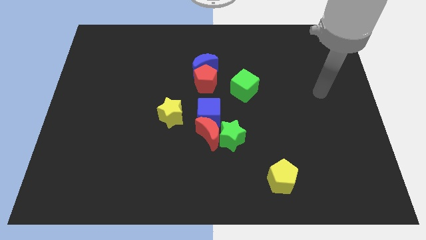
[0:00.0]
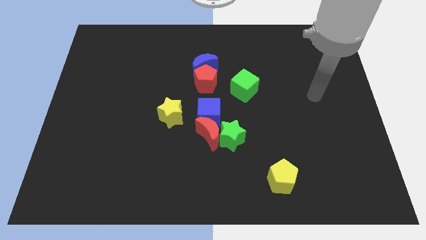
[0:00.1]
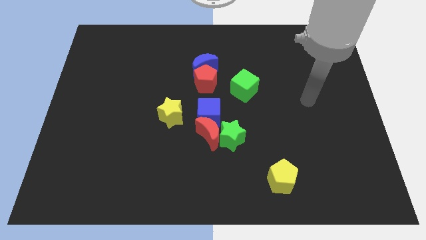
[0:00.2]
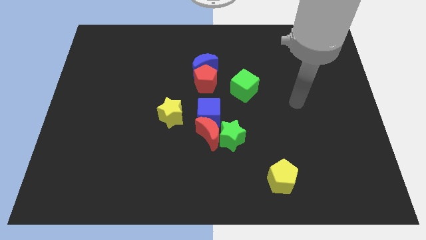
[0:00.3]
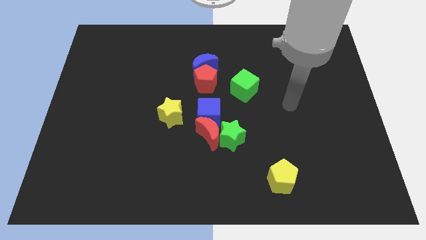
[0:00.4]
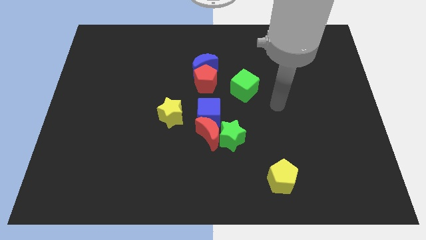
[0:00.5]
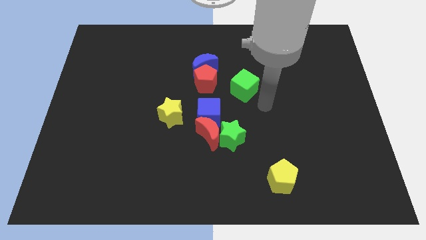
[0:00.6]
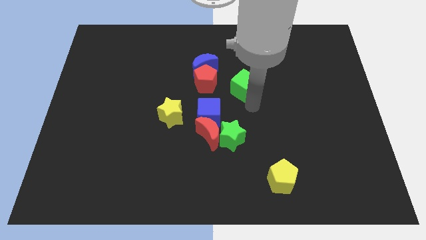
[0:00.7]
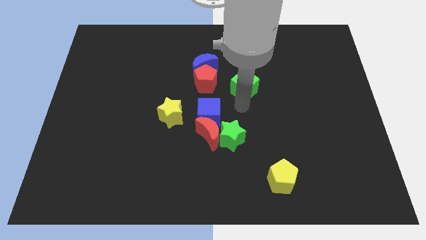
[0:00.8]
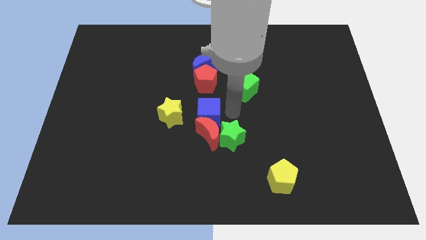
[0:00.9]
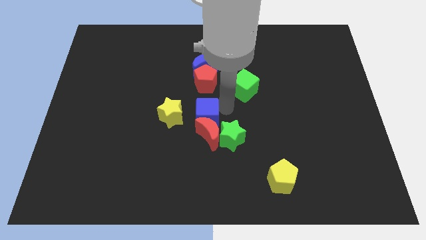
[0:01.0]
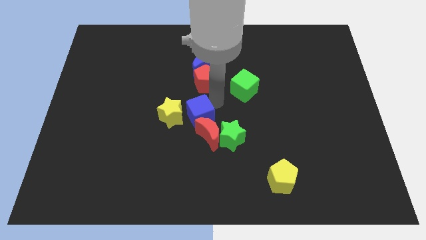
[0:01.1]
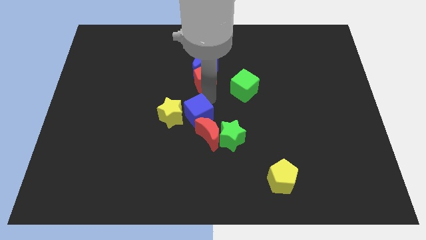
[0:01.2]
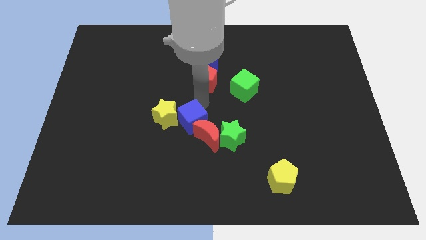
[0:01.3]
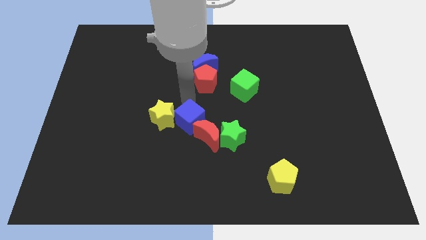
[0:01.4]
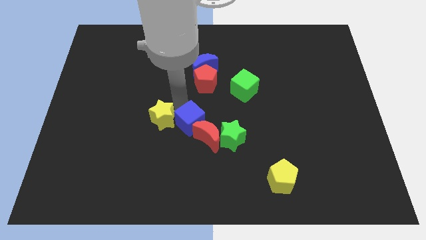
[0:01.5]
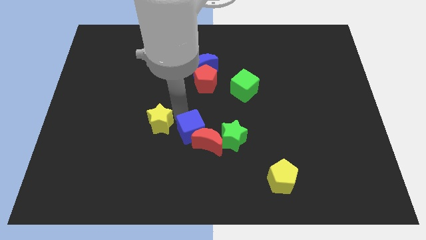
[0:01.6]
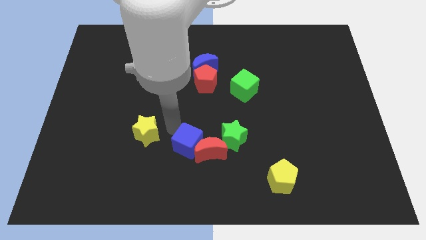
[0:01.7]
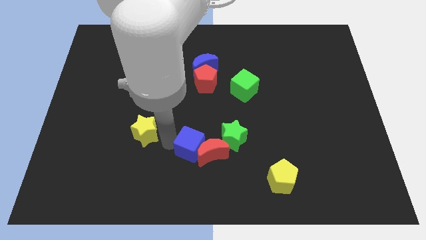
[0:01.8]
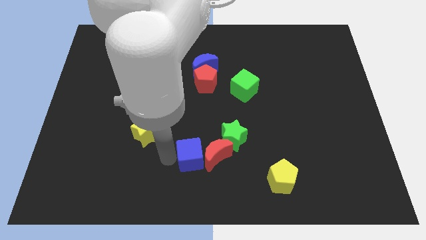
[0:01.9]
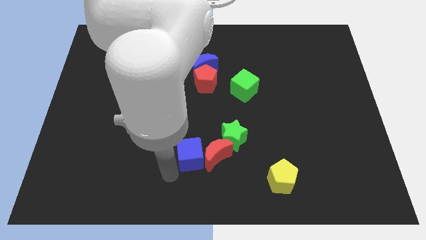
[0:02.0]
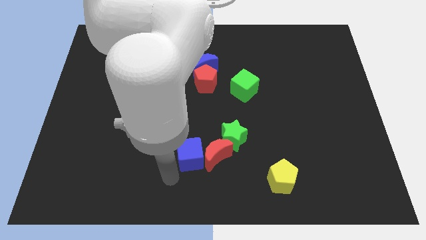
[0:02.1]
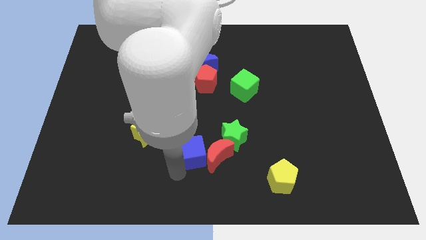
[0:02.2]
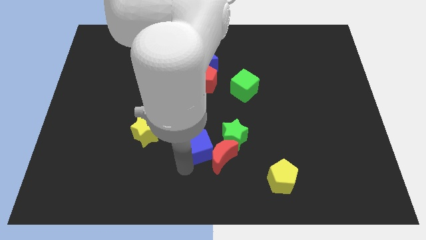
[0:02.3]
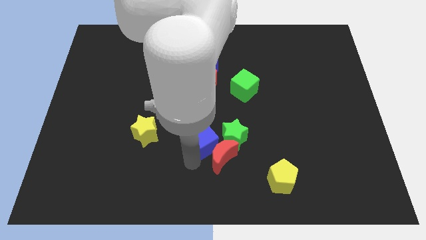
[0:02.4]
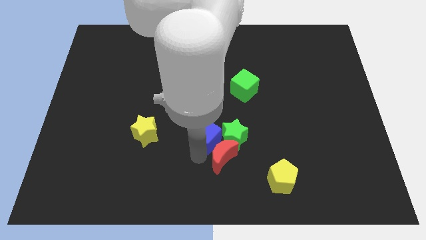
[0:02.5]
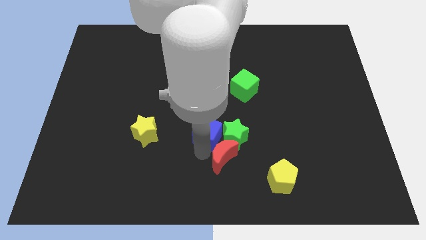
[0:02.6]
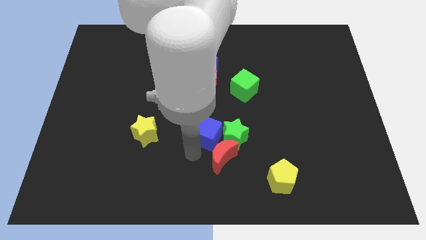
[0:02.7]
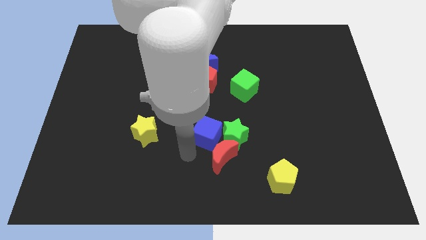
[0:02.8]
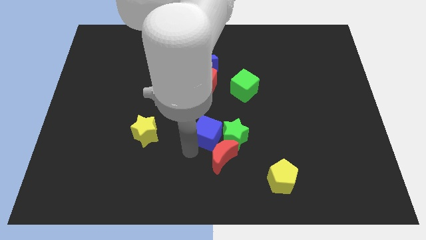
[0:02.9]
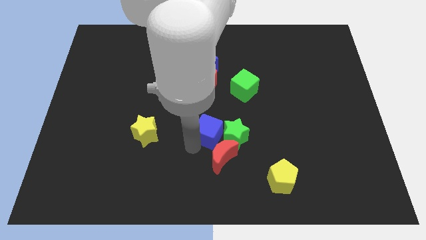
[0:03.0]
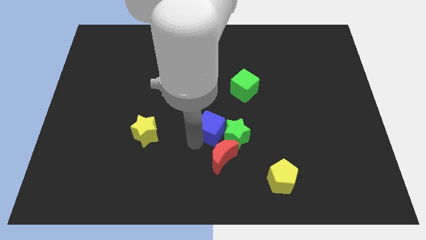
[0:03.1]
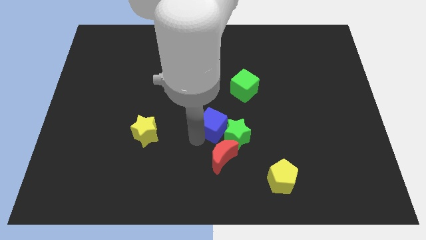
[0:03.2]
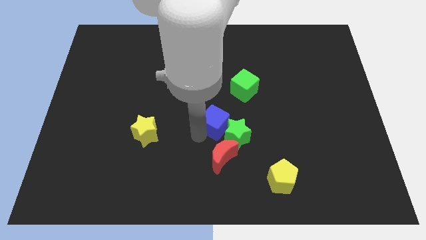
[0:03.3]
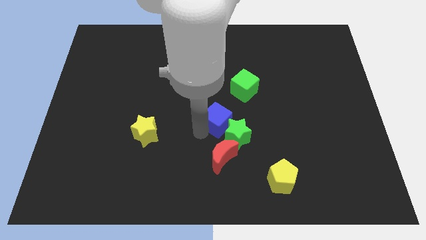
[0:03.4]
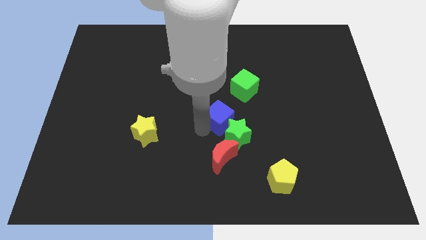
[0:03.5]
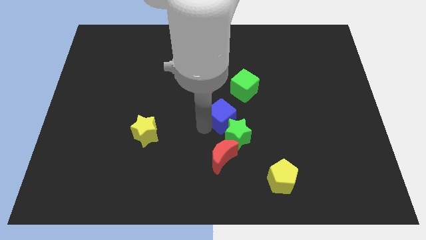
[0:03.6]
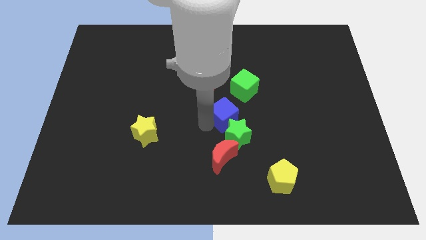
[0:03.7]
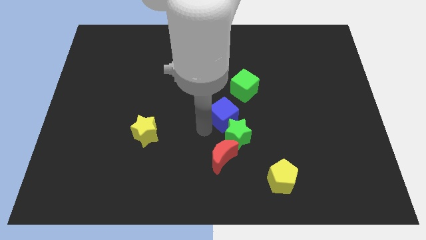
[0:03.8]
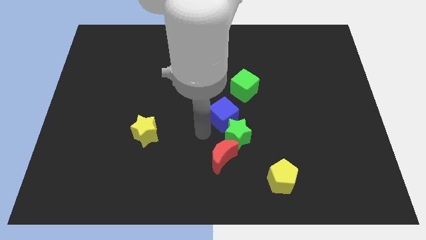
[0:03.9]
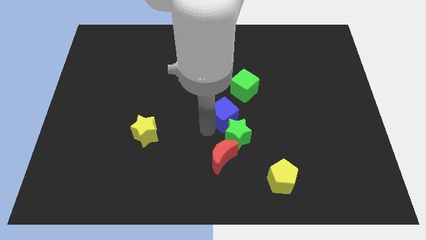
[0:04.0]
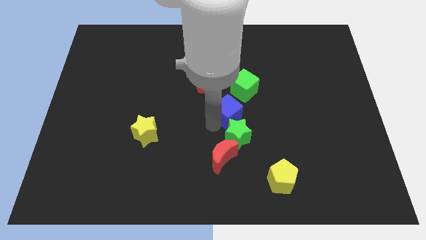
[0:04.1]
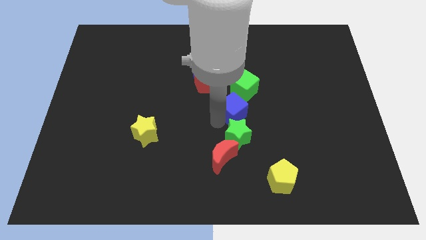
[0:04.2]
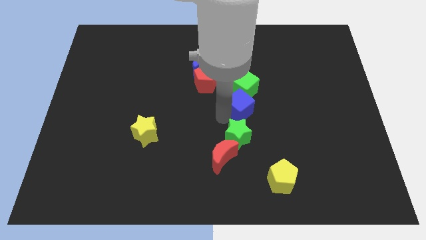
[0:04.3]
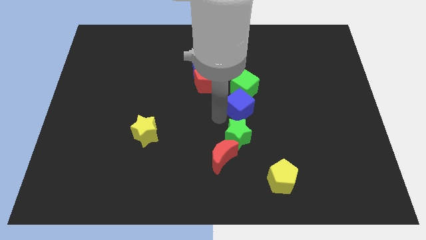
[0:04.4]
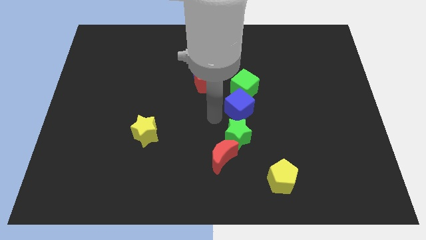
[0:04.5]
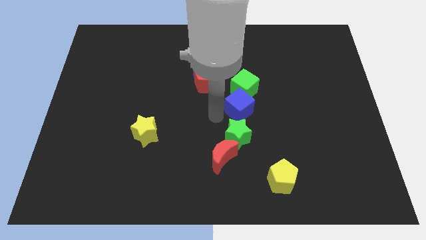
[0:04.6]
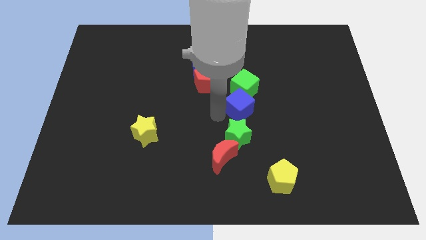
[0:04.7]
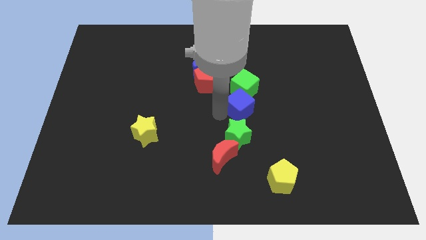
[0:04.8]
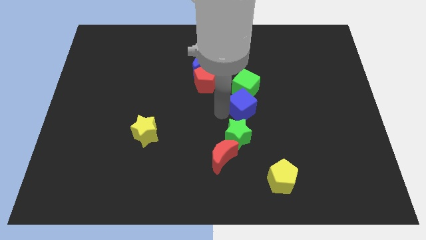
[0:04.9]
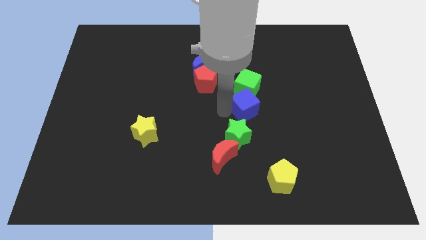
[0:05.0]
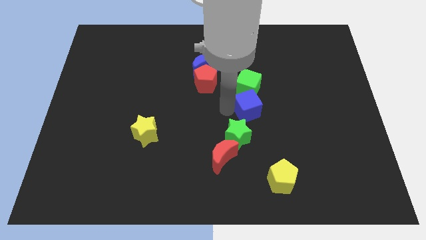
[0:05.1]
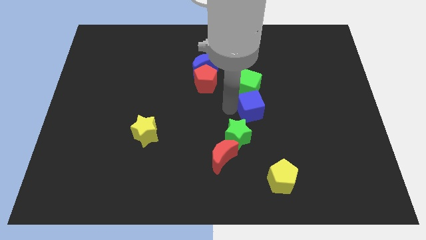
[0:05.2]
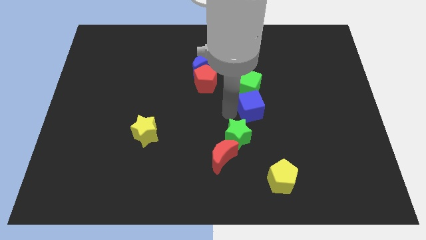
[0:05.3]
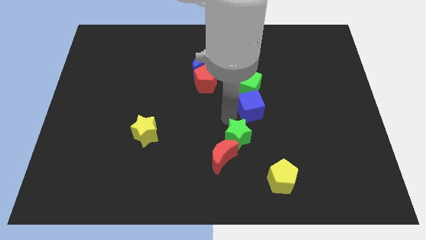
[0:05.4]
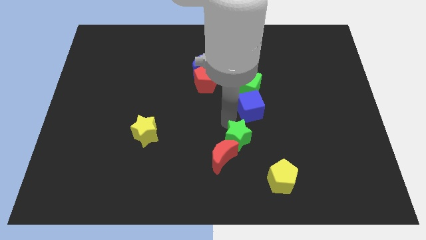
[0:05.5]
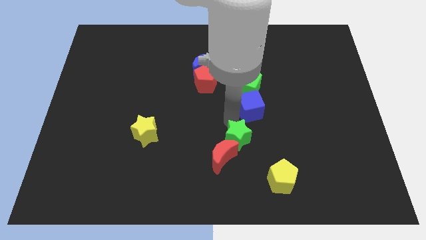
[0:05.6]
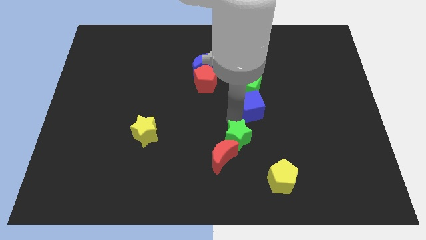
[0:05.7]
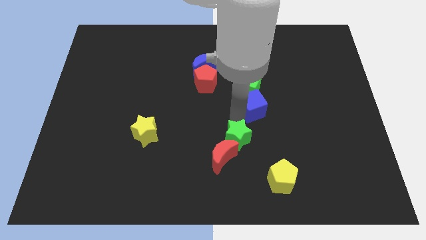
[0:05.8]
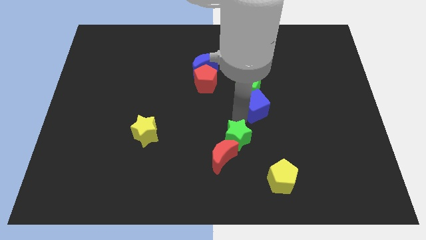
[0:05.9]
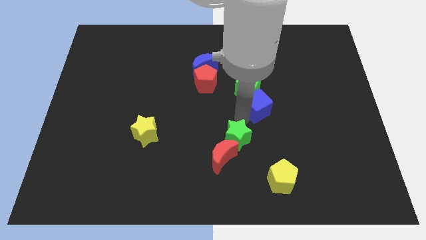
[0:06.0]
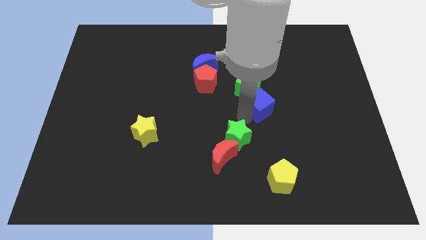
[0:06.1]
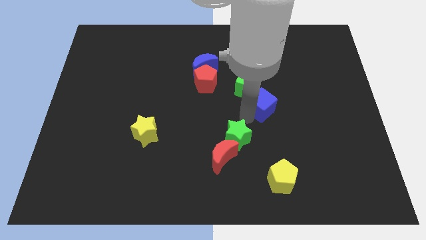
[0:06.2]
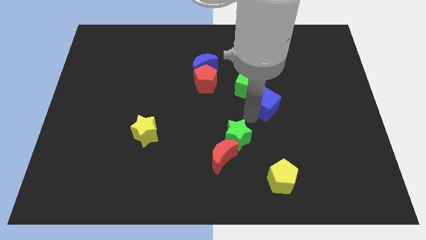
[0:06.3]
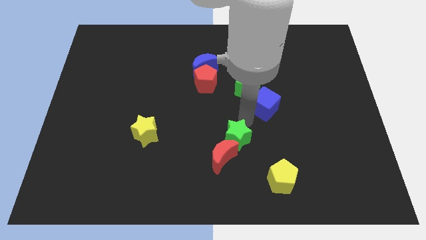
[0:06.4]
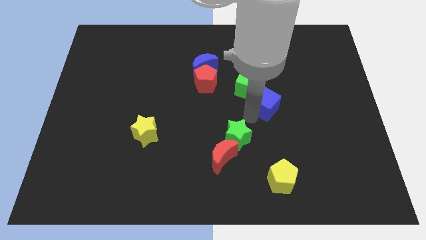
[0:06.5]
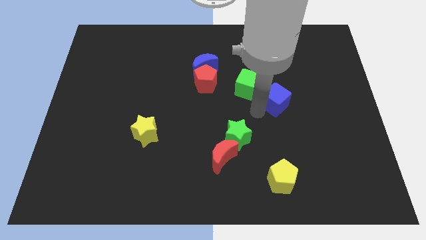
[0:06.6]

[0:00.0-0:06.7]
move the blue cube right of the green cube

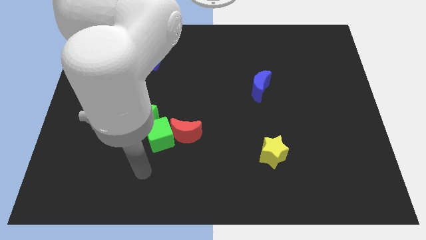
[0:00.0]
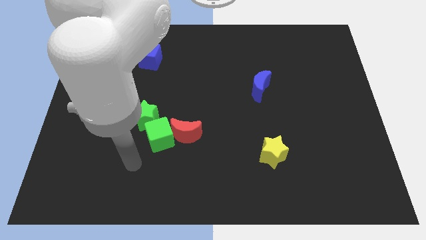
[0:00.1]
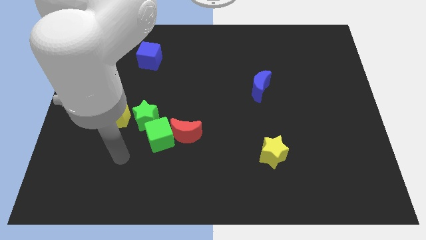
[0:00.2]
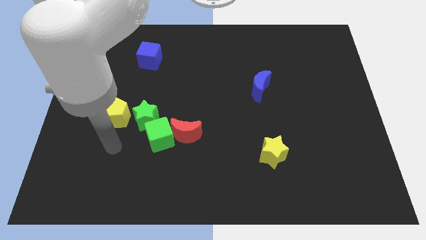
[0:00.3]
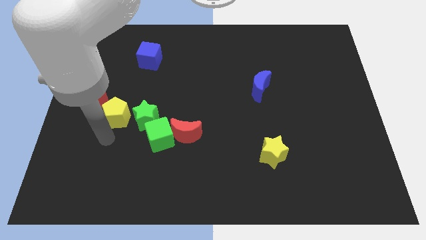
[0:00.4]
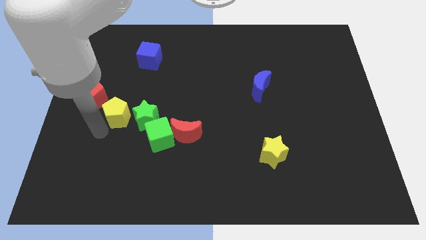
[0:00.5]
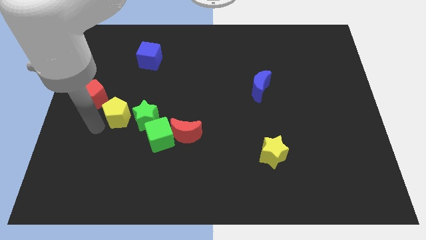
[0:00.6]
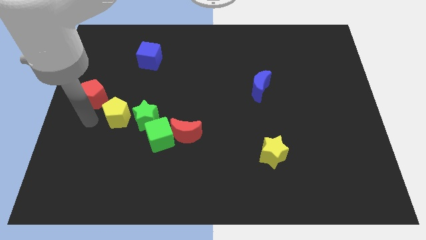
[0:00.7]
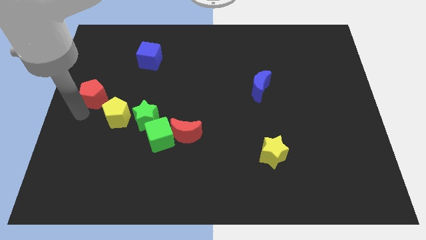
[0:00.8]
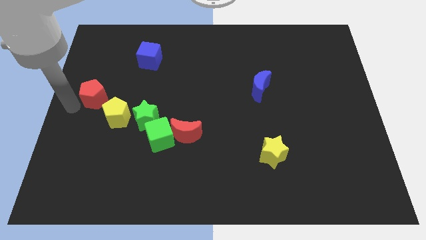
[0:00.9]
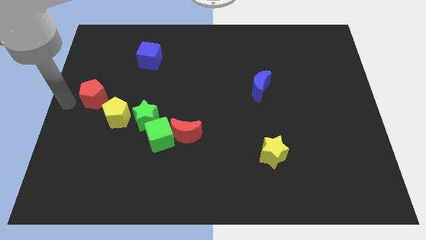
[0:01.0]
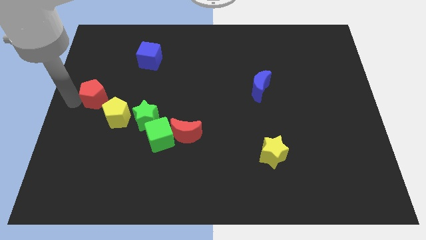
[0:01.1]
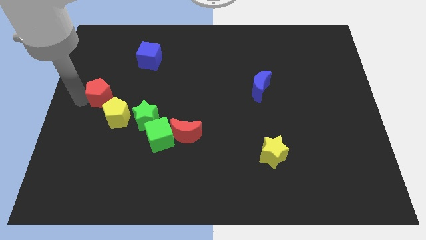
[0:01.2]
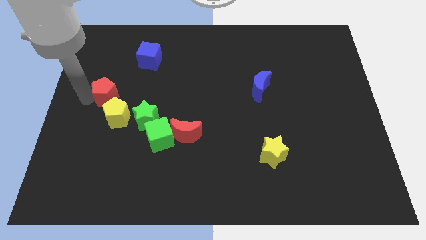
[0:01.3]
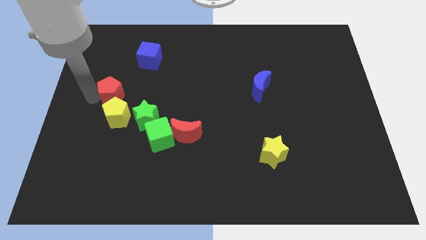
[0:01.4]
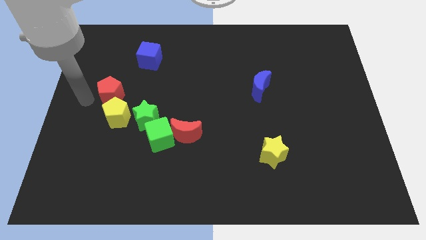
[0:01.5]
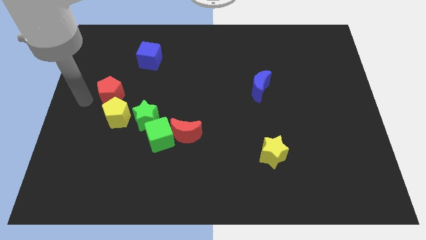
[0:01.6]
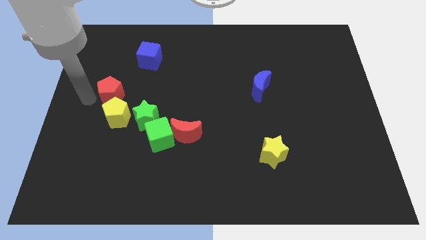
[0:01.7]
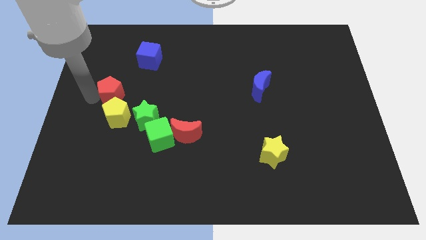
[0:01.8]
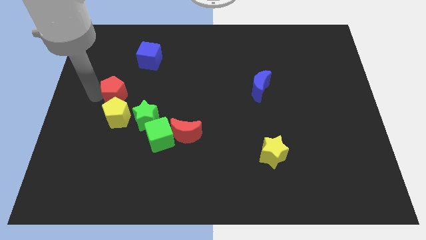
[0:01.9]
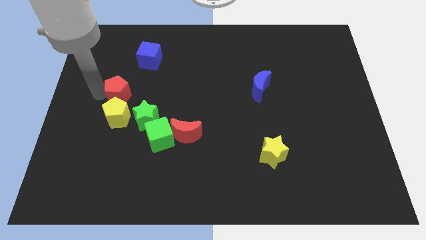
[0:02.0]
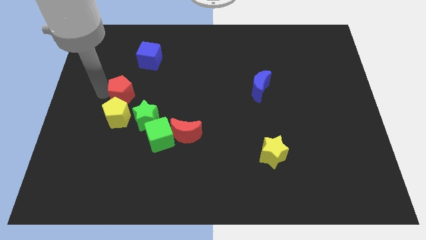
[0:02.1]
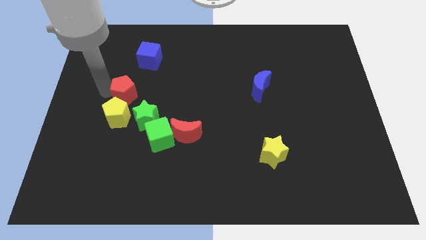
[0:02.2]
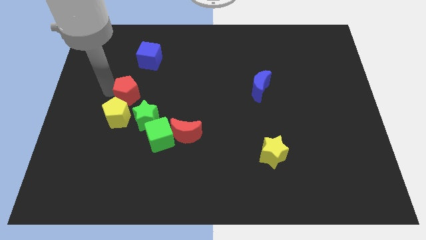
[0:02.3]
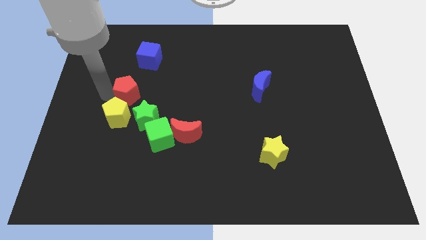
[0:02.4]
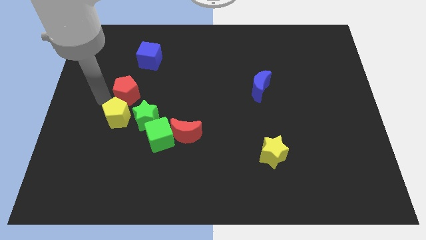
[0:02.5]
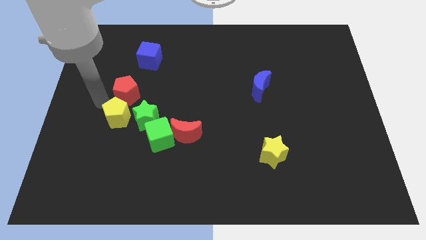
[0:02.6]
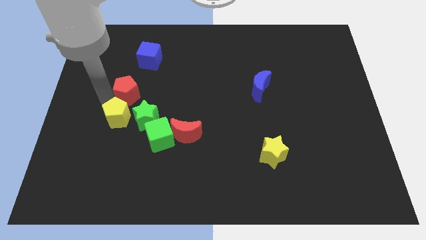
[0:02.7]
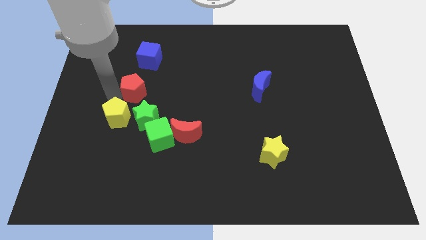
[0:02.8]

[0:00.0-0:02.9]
push the red pentagon above the green star
